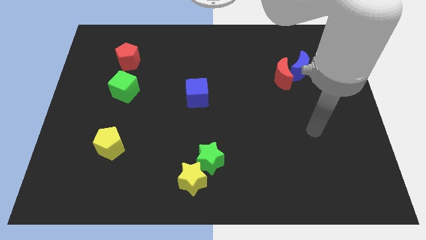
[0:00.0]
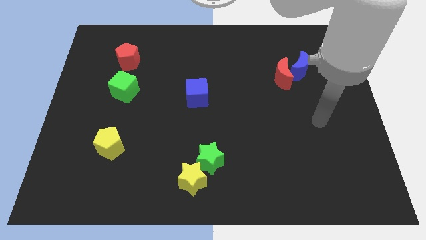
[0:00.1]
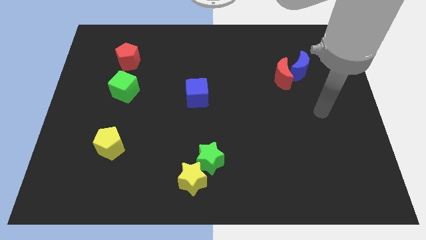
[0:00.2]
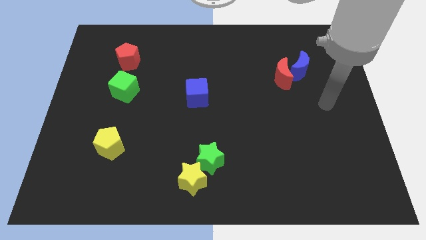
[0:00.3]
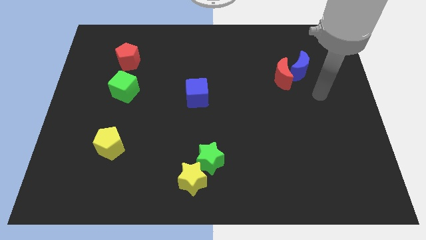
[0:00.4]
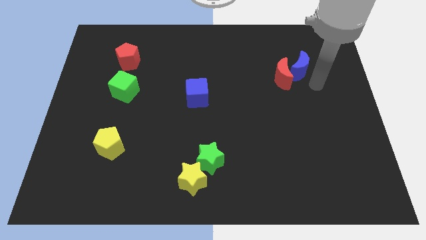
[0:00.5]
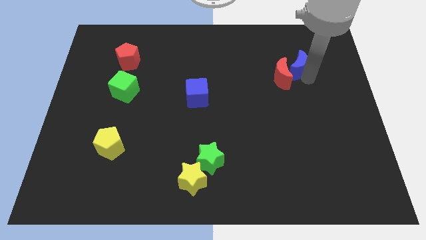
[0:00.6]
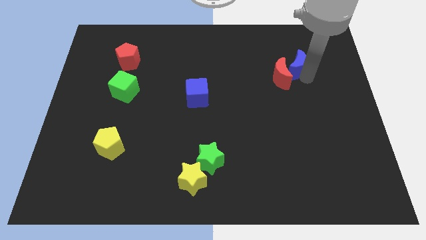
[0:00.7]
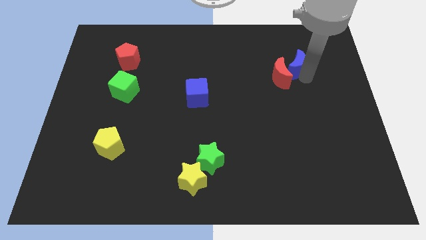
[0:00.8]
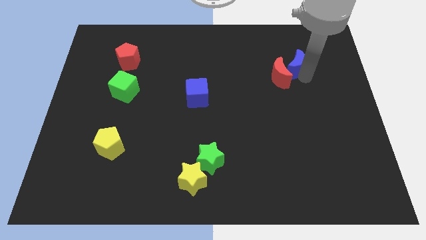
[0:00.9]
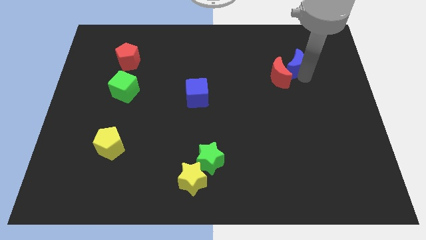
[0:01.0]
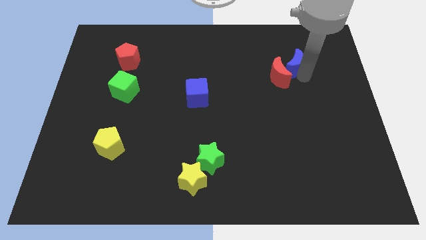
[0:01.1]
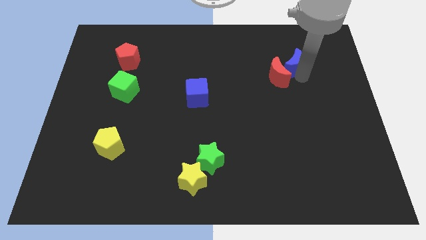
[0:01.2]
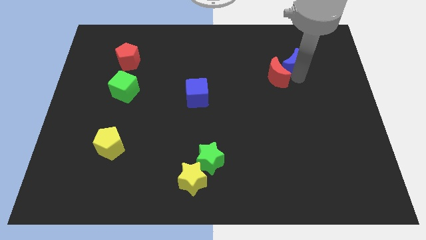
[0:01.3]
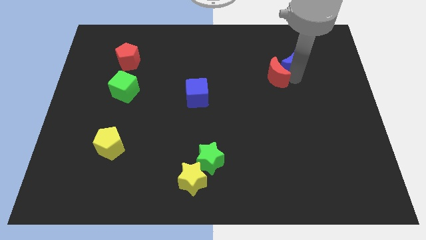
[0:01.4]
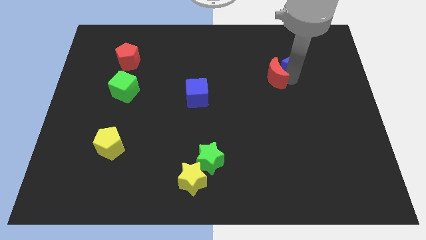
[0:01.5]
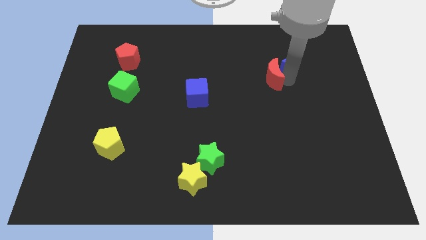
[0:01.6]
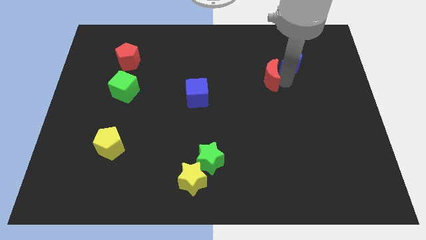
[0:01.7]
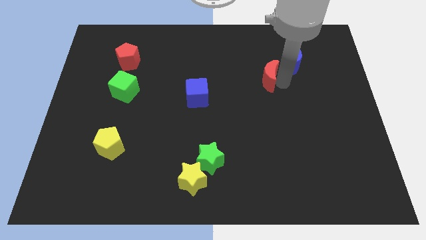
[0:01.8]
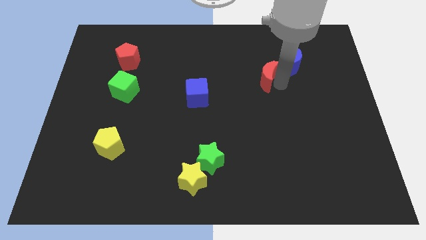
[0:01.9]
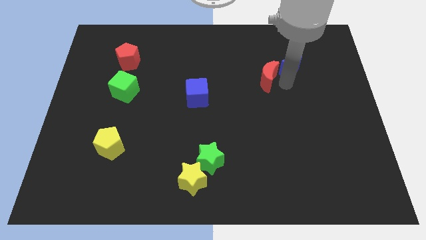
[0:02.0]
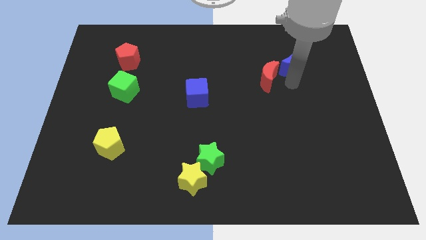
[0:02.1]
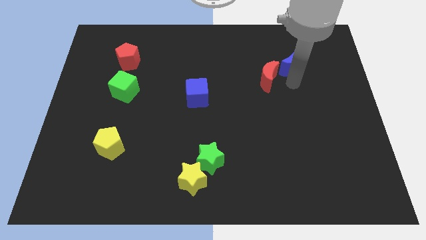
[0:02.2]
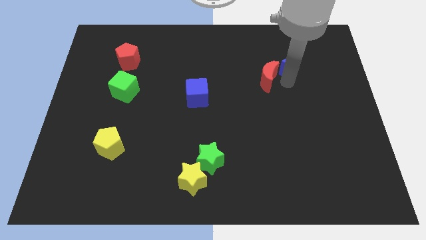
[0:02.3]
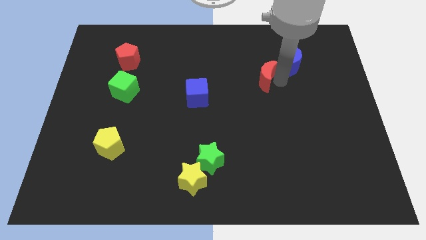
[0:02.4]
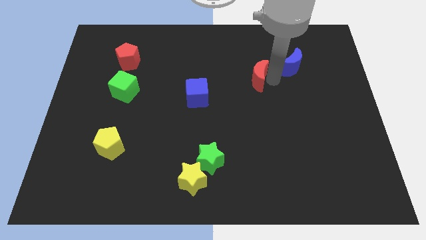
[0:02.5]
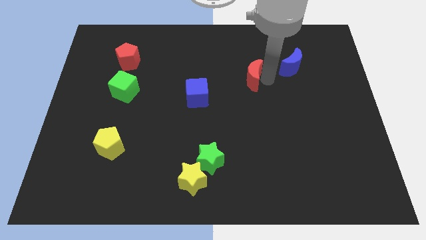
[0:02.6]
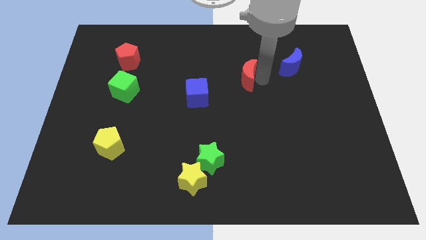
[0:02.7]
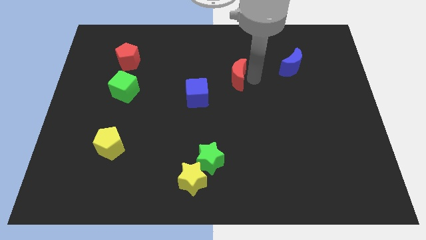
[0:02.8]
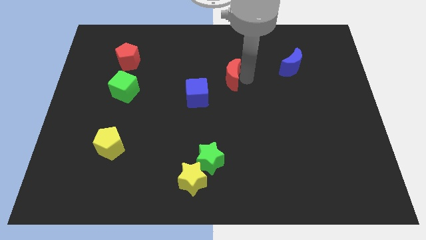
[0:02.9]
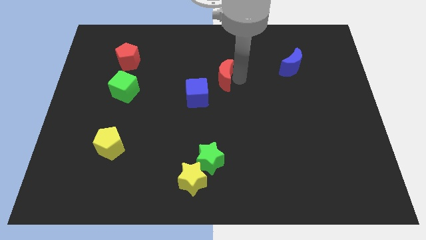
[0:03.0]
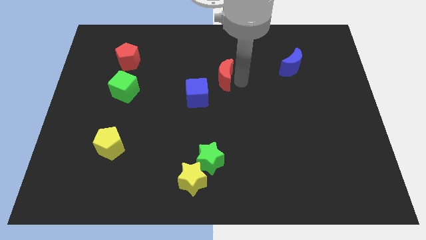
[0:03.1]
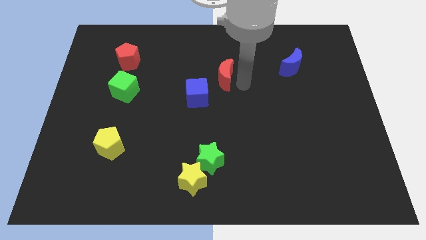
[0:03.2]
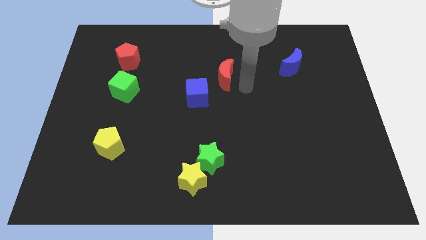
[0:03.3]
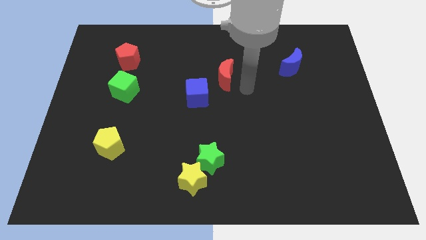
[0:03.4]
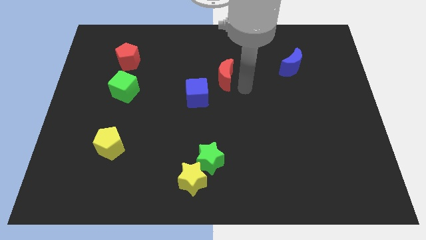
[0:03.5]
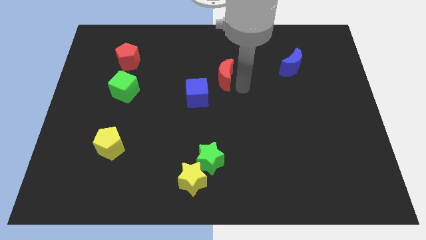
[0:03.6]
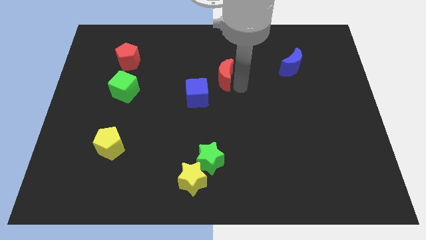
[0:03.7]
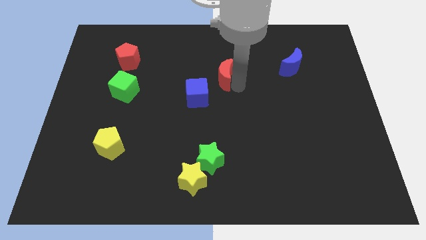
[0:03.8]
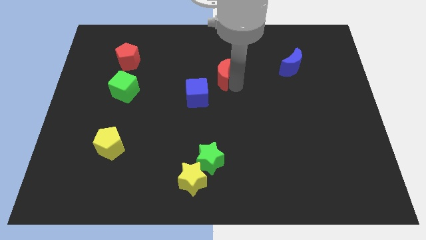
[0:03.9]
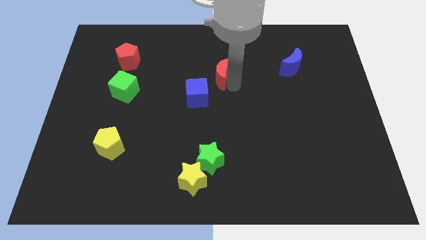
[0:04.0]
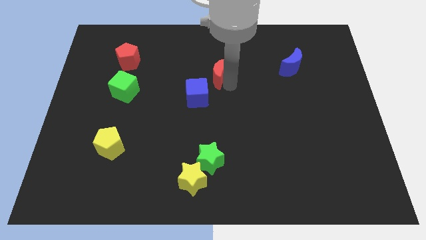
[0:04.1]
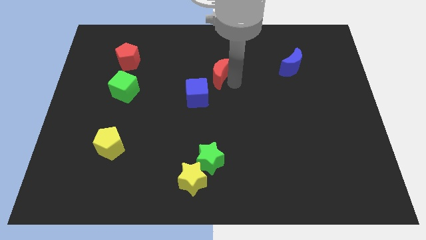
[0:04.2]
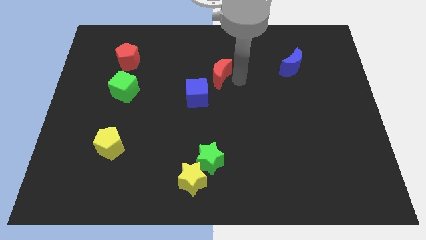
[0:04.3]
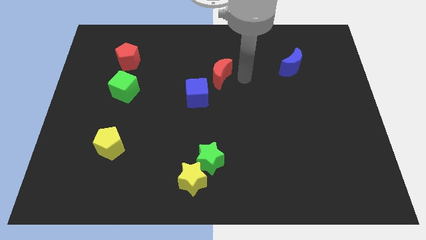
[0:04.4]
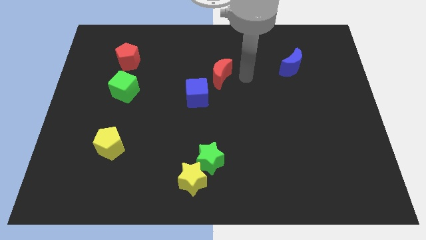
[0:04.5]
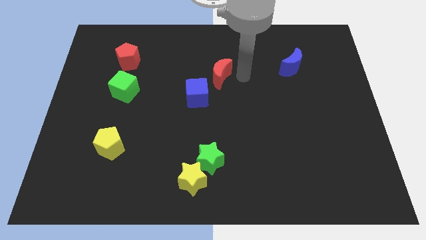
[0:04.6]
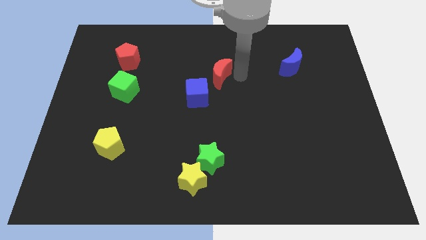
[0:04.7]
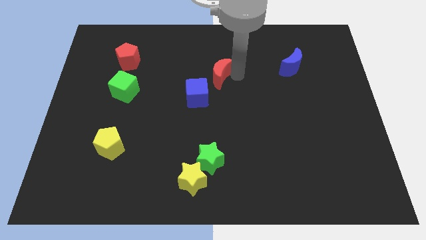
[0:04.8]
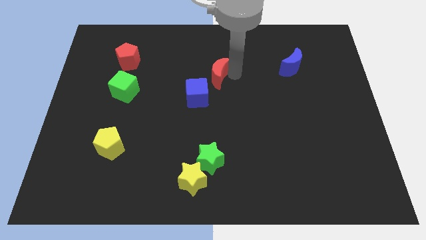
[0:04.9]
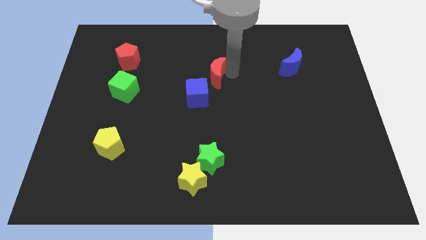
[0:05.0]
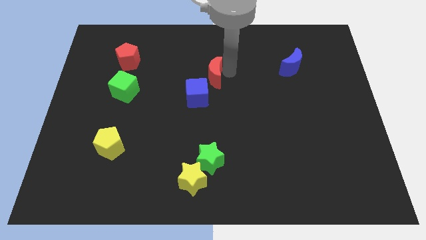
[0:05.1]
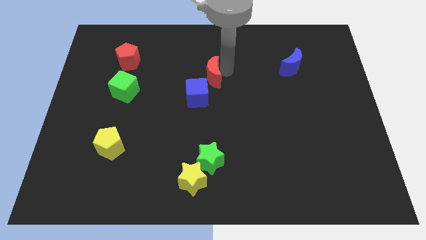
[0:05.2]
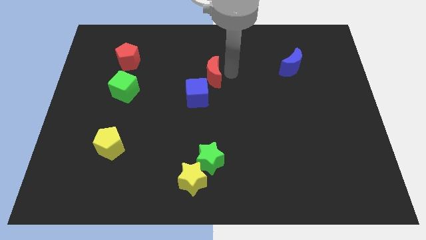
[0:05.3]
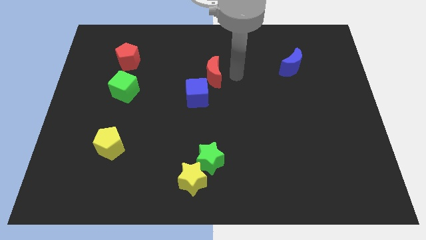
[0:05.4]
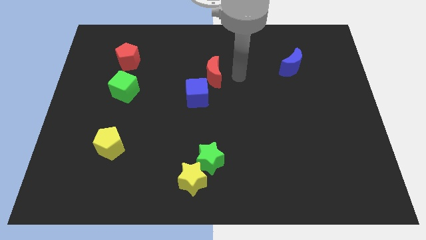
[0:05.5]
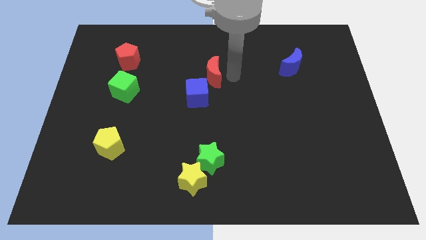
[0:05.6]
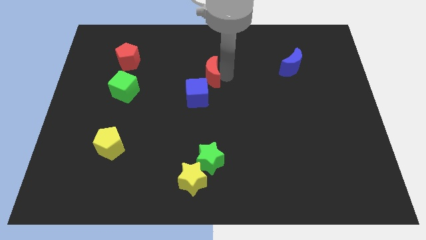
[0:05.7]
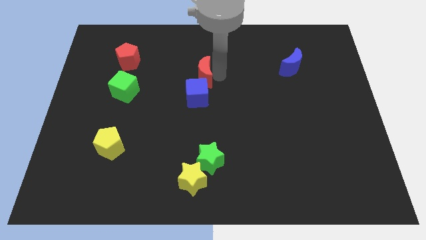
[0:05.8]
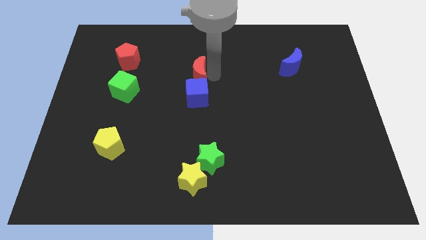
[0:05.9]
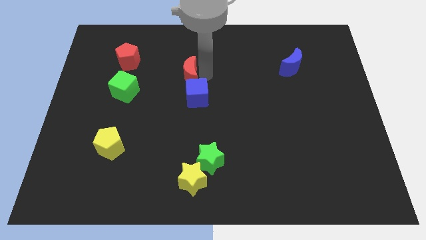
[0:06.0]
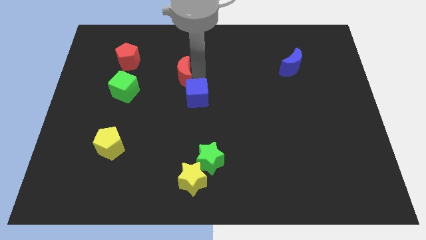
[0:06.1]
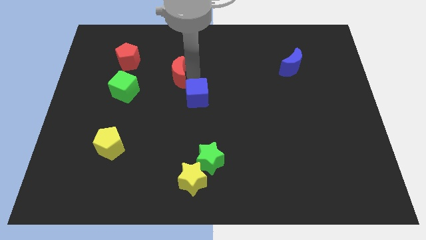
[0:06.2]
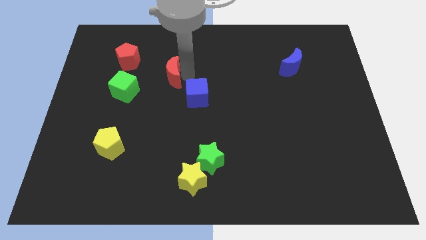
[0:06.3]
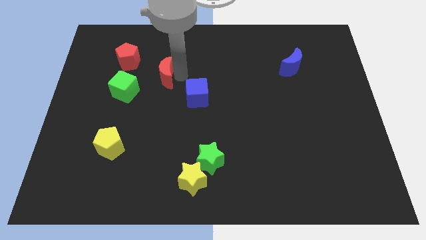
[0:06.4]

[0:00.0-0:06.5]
put the red moon diagonally up and to the right of the green cube

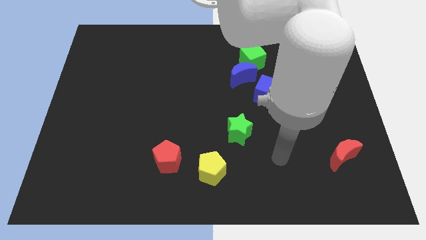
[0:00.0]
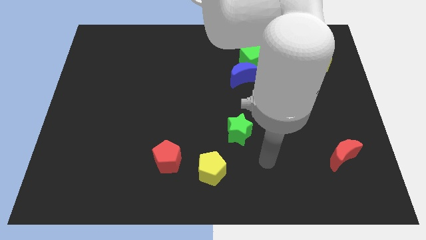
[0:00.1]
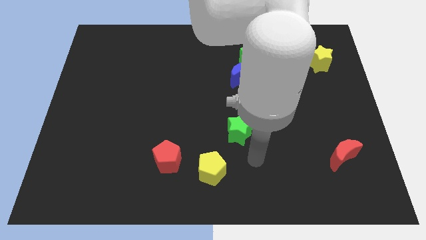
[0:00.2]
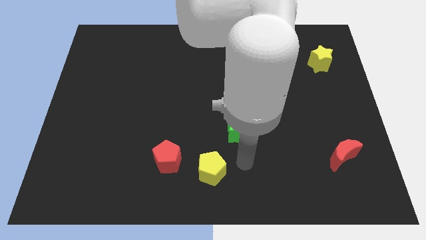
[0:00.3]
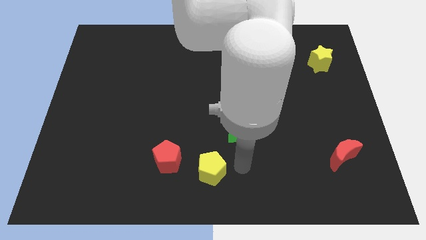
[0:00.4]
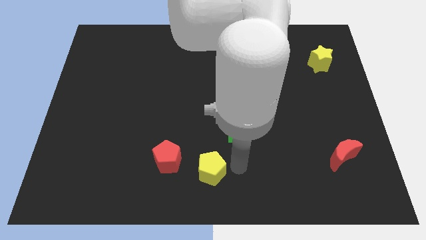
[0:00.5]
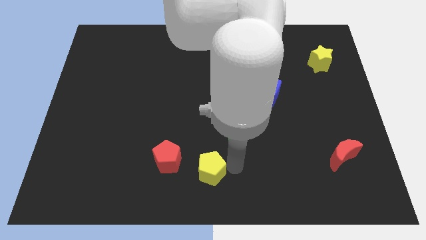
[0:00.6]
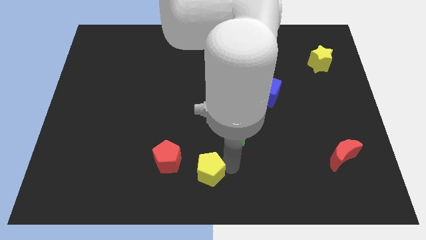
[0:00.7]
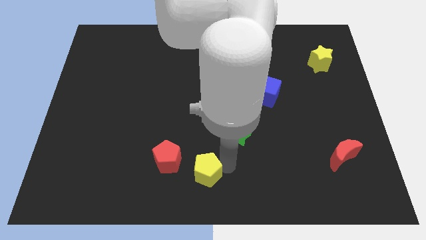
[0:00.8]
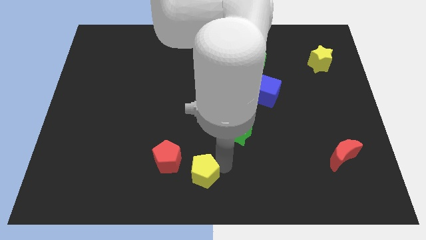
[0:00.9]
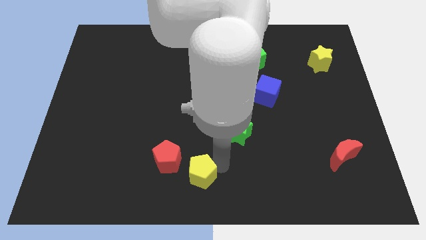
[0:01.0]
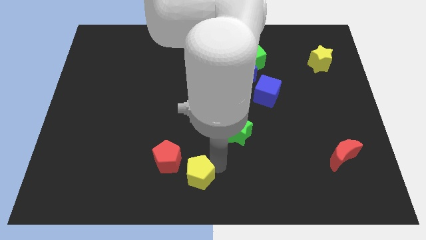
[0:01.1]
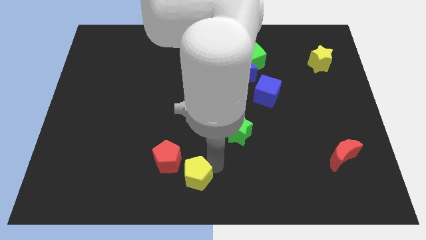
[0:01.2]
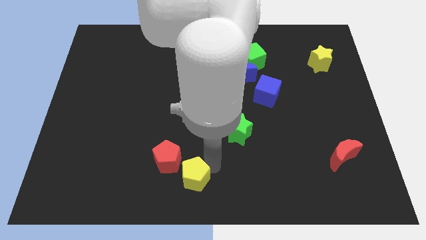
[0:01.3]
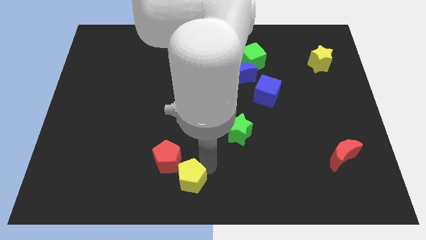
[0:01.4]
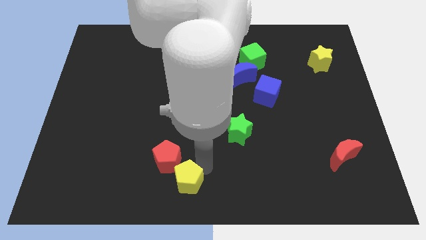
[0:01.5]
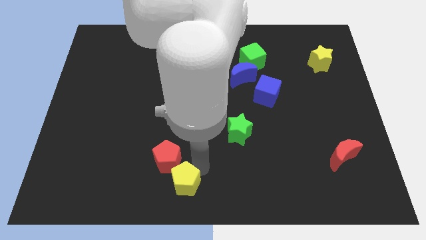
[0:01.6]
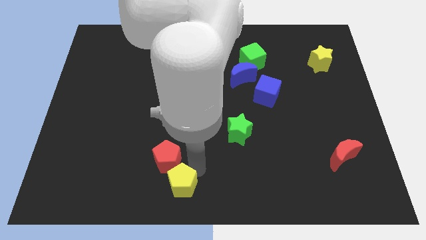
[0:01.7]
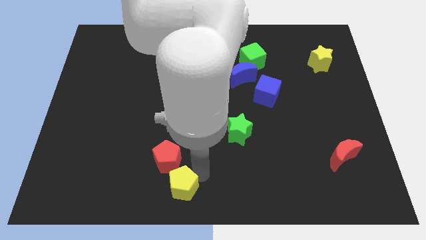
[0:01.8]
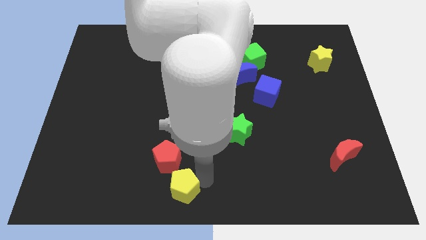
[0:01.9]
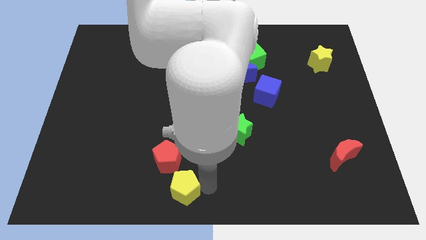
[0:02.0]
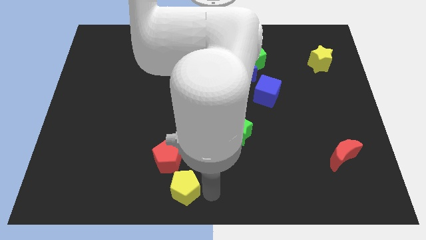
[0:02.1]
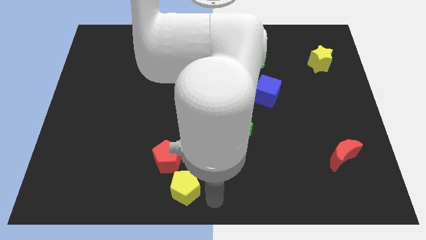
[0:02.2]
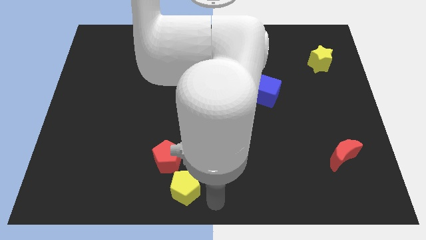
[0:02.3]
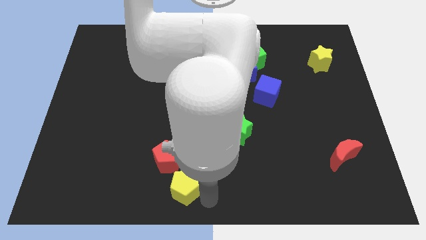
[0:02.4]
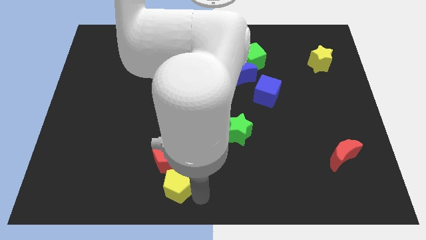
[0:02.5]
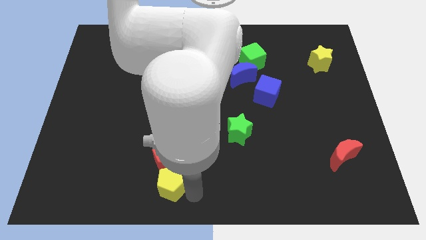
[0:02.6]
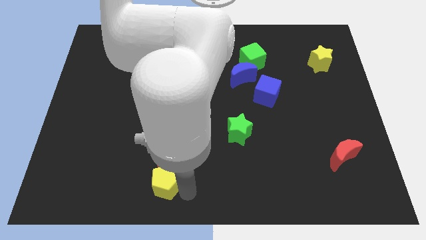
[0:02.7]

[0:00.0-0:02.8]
put the yellow pentagon to the bottom left of the red pentagon
